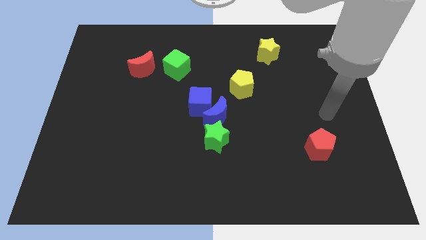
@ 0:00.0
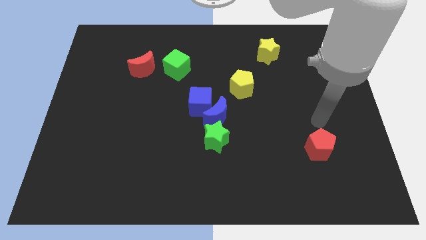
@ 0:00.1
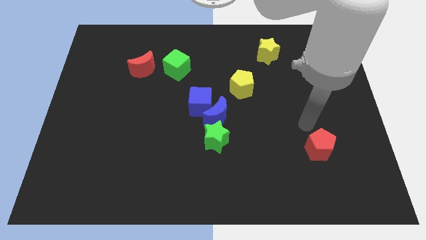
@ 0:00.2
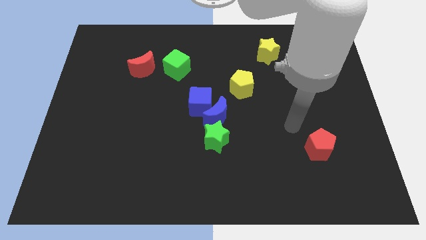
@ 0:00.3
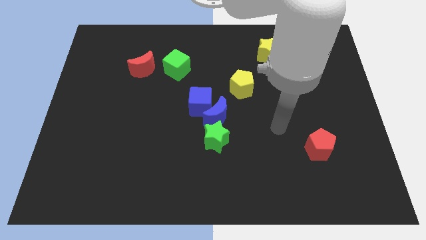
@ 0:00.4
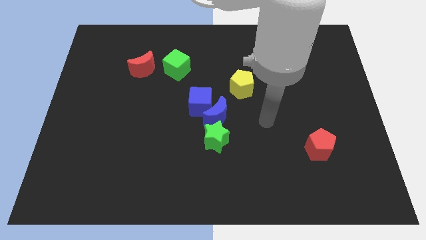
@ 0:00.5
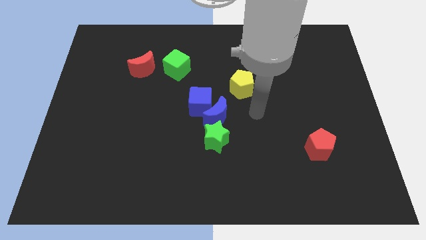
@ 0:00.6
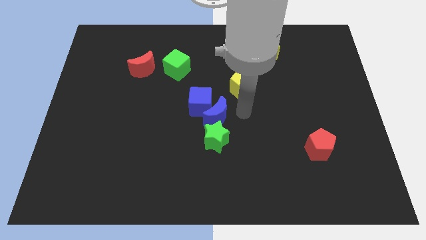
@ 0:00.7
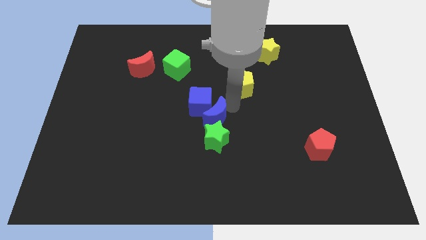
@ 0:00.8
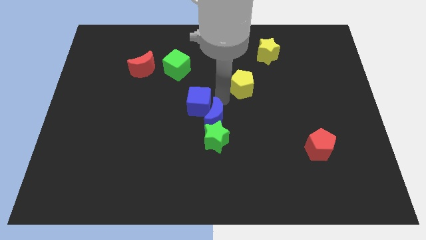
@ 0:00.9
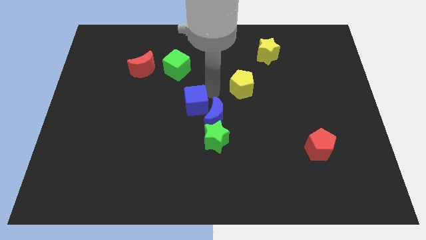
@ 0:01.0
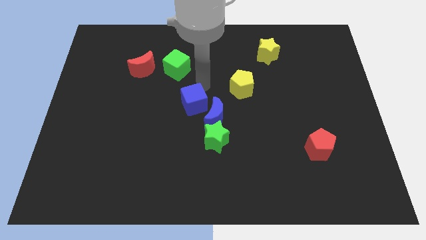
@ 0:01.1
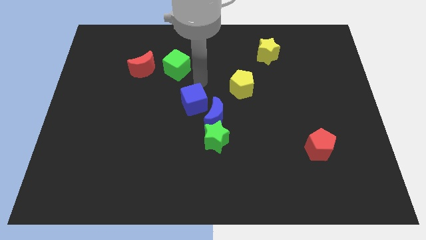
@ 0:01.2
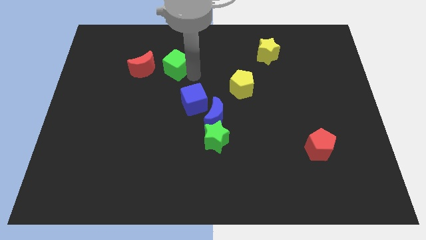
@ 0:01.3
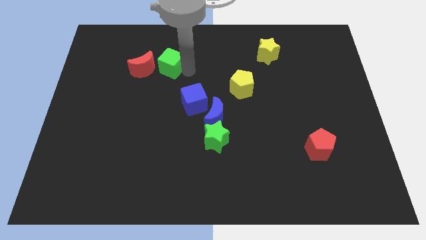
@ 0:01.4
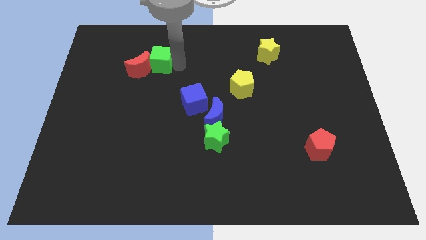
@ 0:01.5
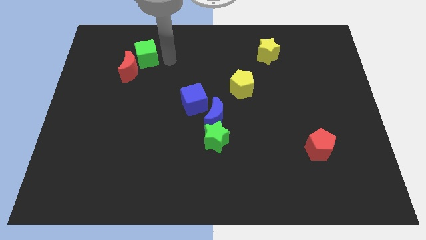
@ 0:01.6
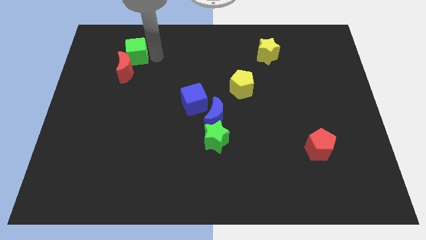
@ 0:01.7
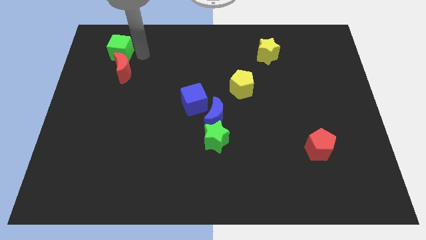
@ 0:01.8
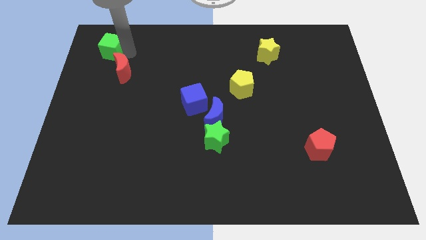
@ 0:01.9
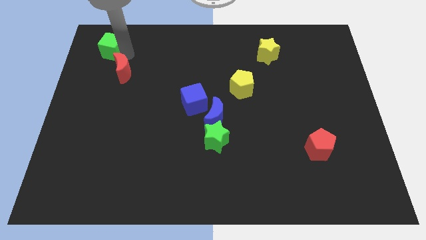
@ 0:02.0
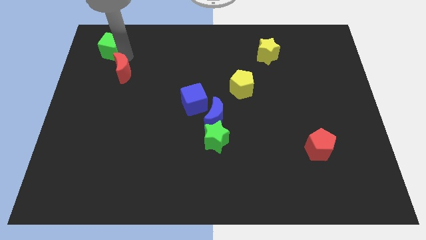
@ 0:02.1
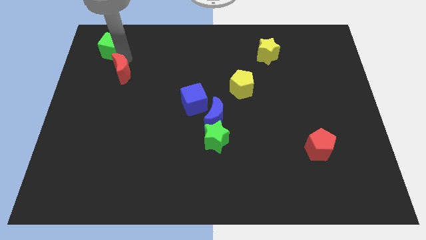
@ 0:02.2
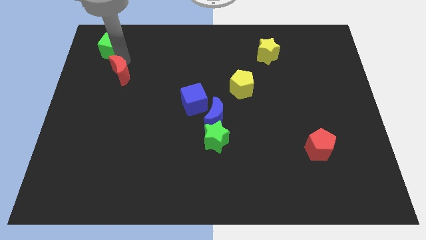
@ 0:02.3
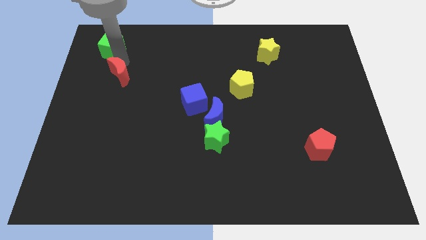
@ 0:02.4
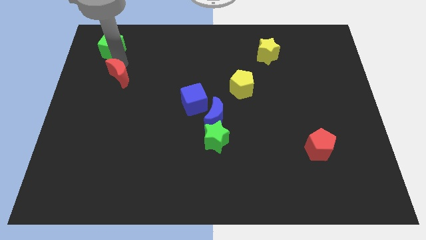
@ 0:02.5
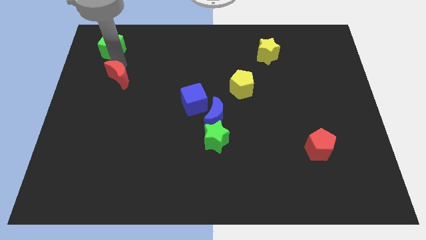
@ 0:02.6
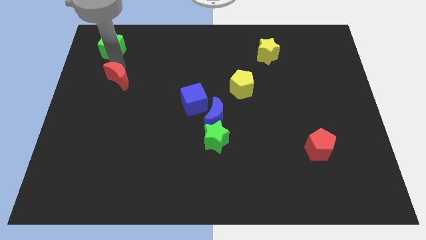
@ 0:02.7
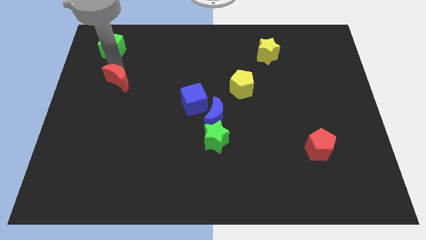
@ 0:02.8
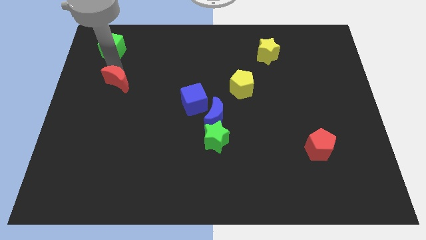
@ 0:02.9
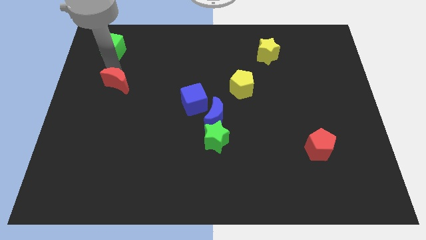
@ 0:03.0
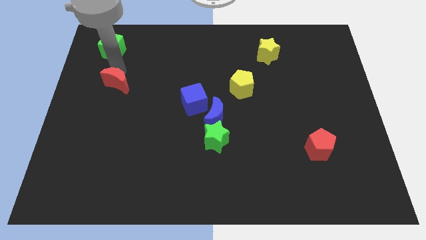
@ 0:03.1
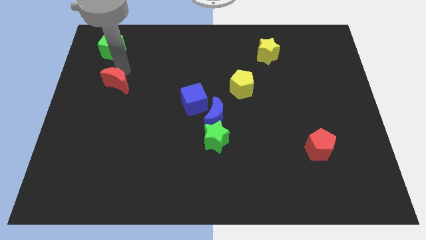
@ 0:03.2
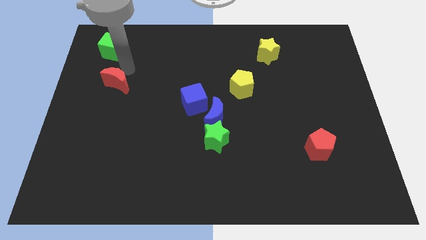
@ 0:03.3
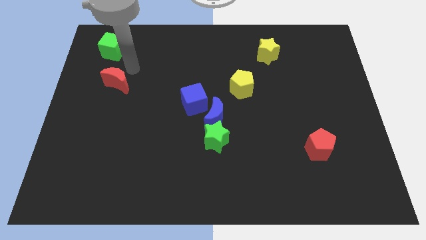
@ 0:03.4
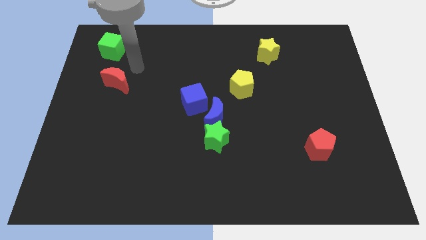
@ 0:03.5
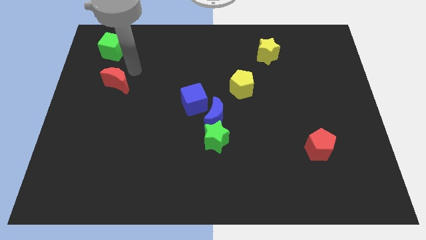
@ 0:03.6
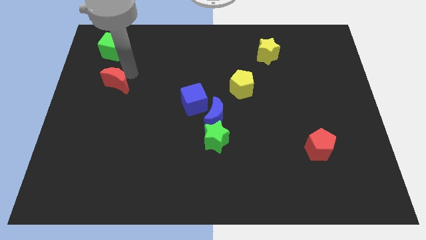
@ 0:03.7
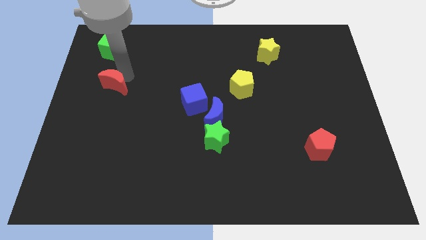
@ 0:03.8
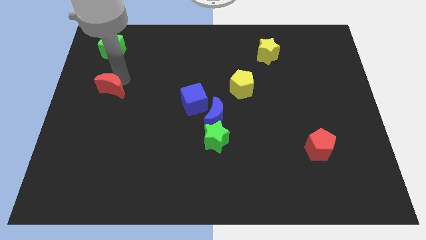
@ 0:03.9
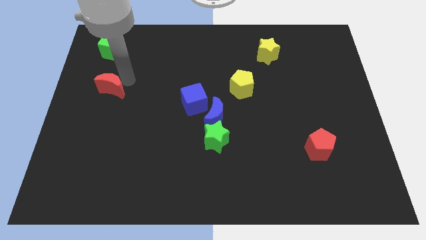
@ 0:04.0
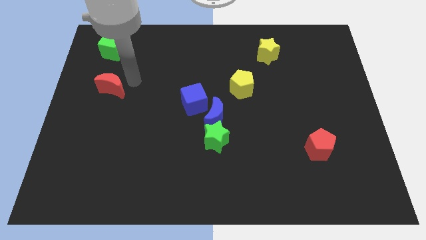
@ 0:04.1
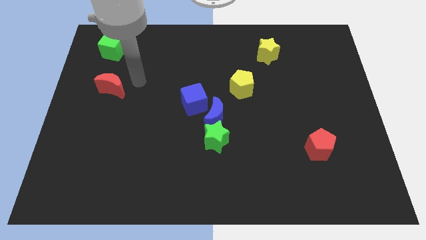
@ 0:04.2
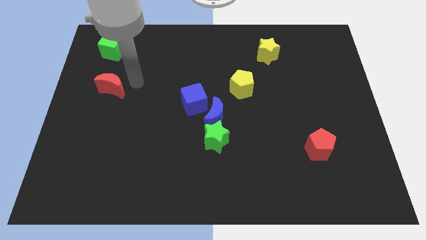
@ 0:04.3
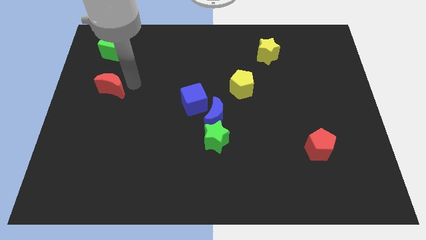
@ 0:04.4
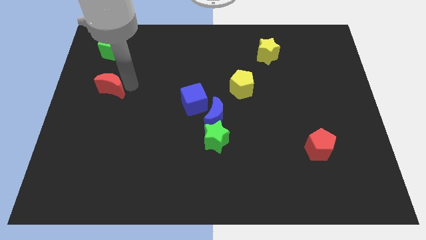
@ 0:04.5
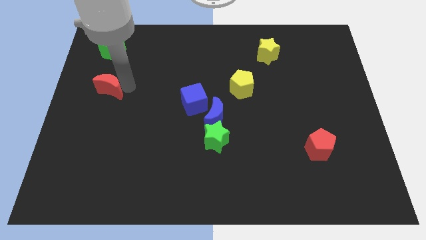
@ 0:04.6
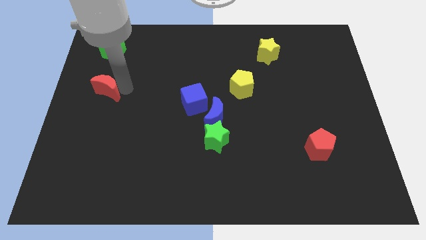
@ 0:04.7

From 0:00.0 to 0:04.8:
push the red moon to the left side

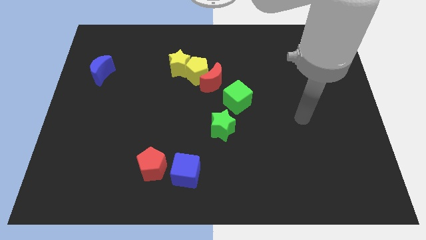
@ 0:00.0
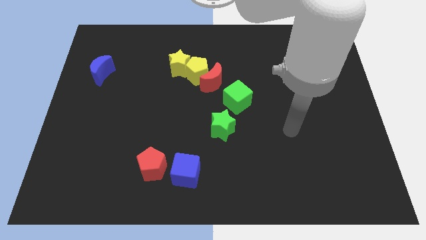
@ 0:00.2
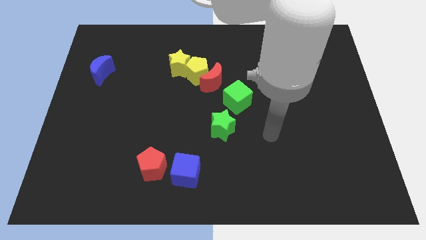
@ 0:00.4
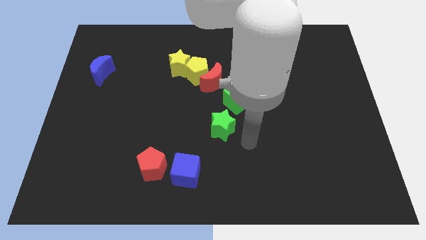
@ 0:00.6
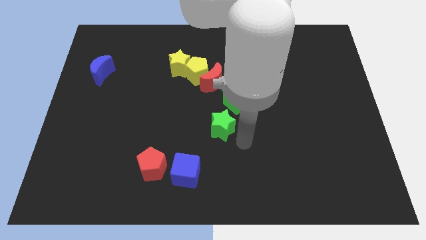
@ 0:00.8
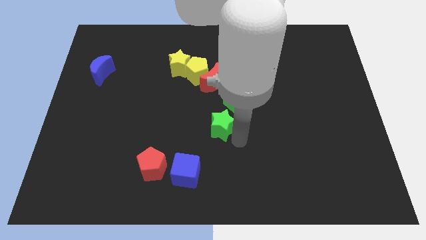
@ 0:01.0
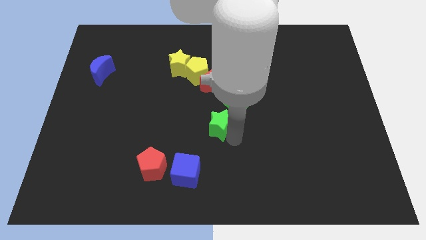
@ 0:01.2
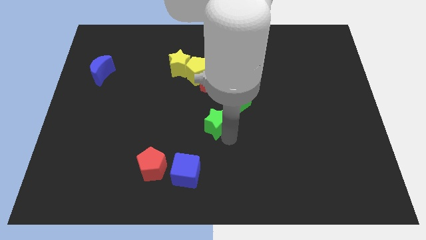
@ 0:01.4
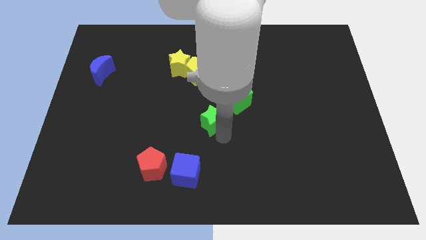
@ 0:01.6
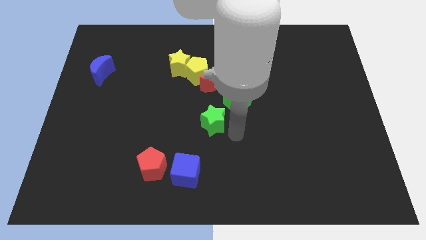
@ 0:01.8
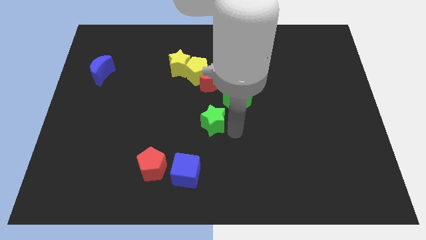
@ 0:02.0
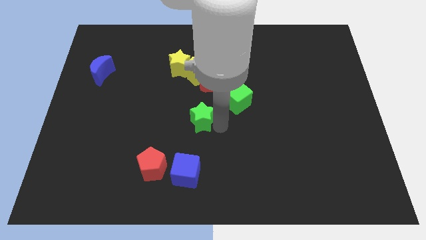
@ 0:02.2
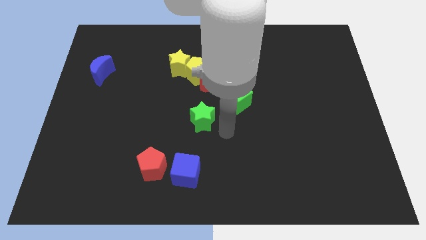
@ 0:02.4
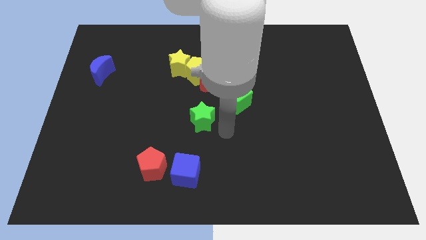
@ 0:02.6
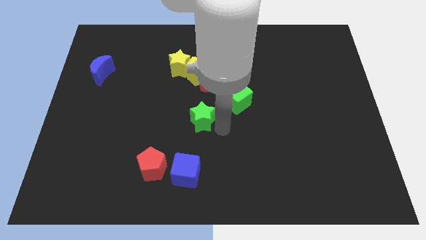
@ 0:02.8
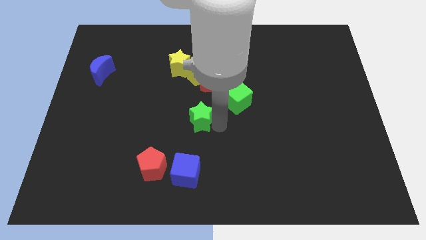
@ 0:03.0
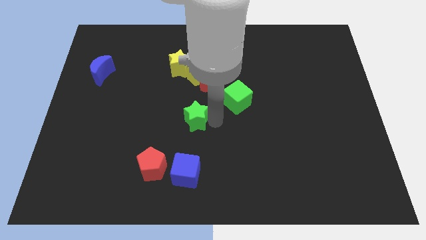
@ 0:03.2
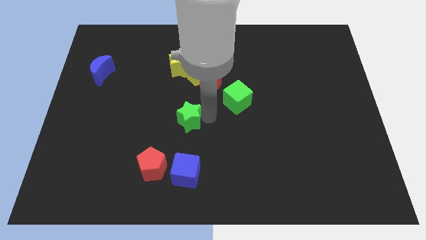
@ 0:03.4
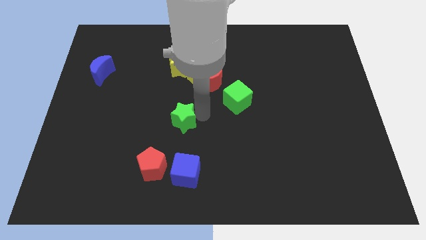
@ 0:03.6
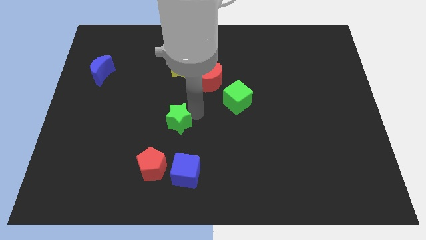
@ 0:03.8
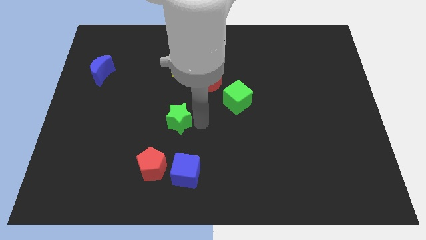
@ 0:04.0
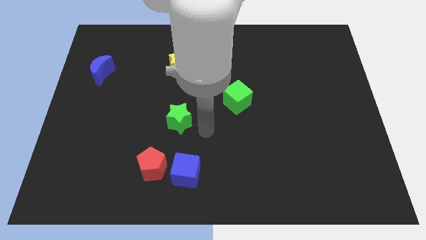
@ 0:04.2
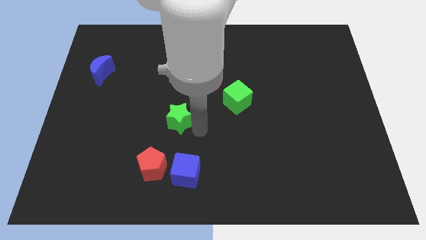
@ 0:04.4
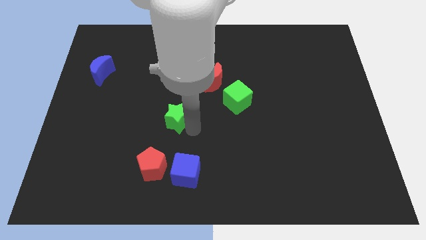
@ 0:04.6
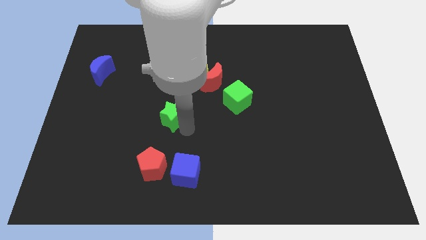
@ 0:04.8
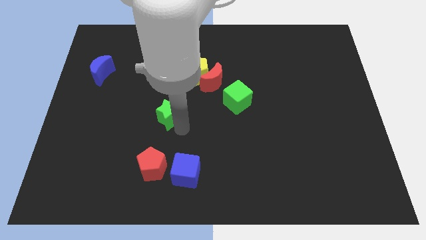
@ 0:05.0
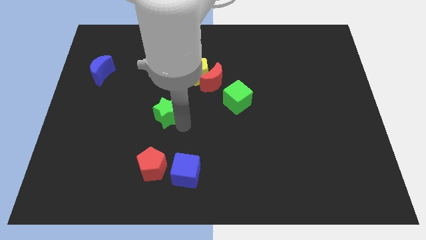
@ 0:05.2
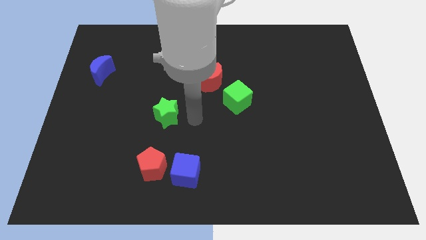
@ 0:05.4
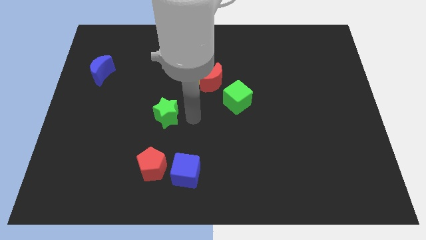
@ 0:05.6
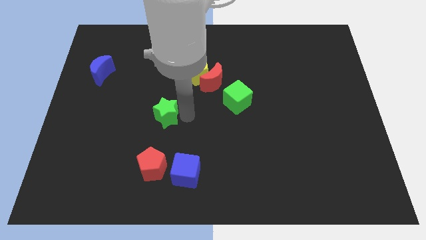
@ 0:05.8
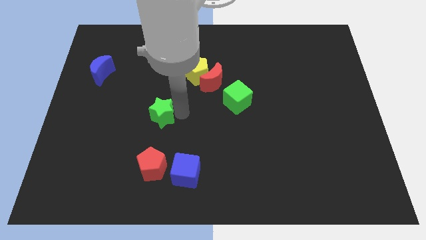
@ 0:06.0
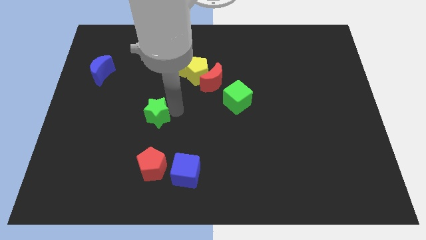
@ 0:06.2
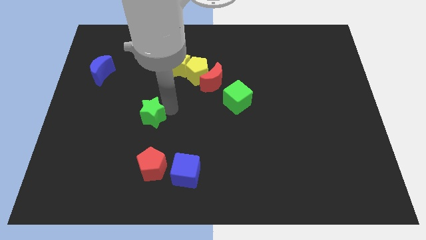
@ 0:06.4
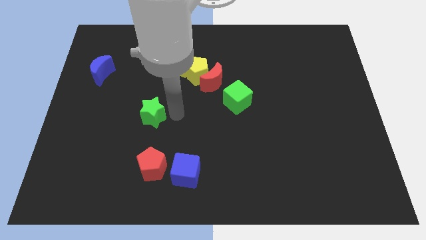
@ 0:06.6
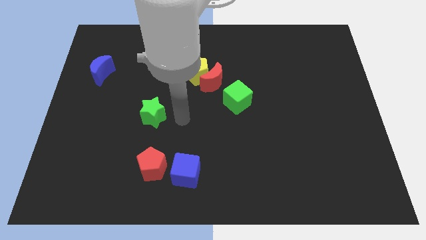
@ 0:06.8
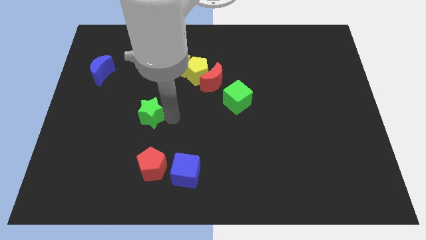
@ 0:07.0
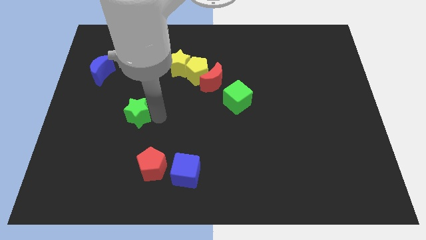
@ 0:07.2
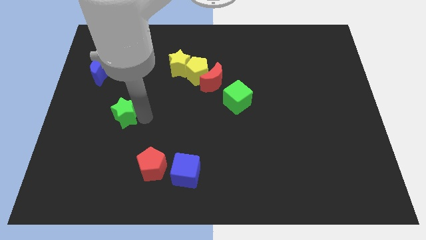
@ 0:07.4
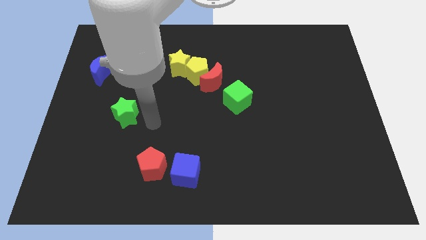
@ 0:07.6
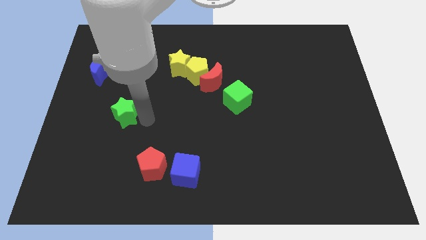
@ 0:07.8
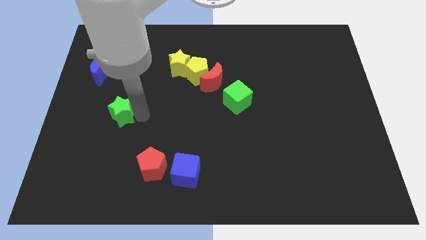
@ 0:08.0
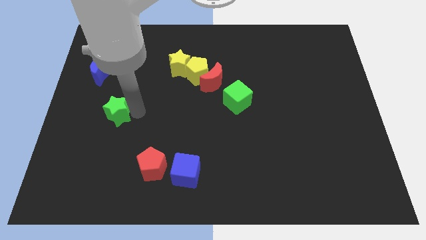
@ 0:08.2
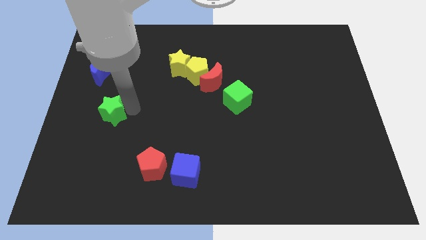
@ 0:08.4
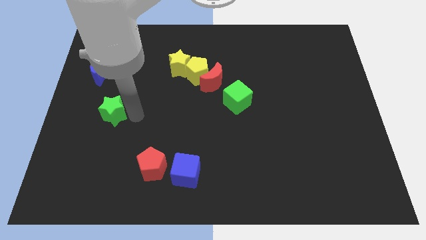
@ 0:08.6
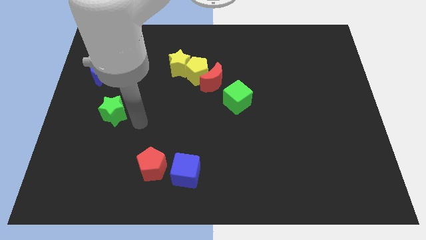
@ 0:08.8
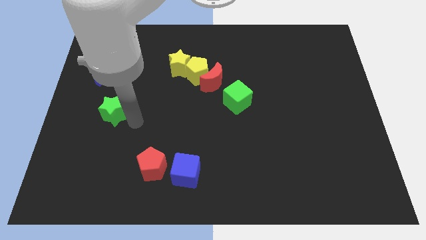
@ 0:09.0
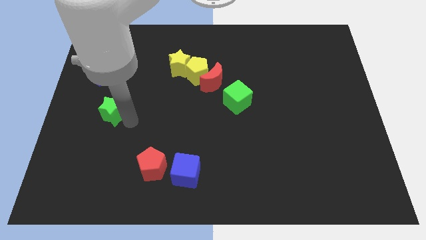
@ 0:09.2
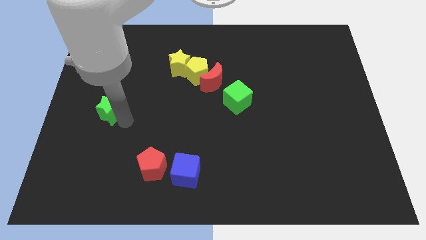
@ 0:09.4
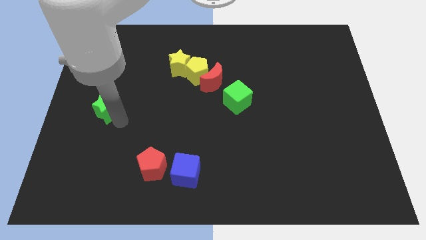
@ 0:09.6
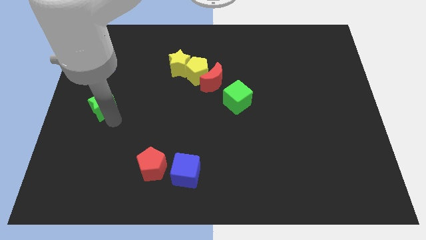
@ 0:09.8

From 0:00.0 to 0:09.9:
push the green star to the left side of the board
